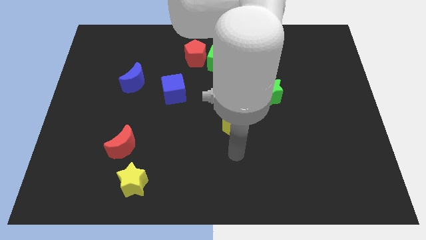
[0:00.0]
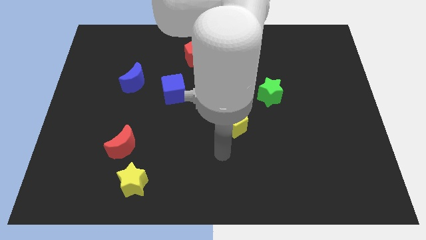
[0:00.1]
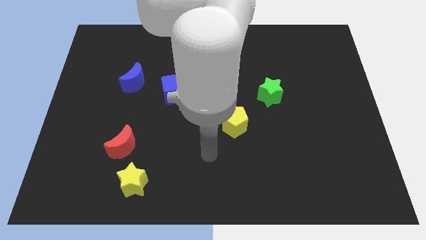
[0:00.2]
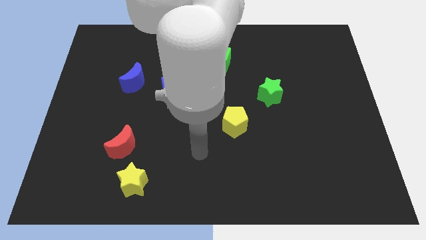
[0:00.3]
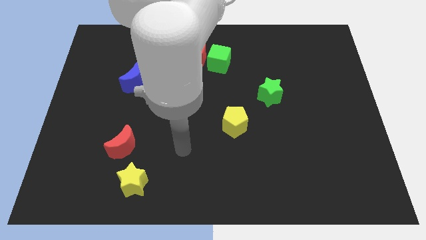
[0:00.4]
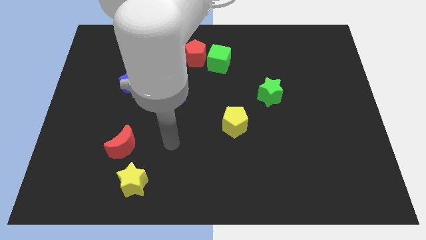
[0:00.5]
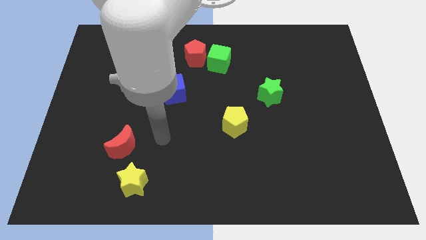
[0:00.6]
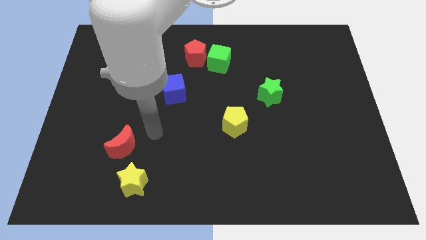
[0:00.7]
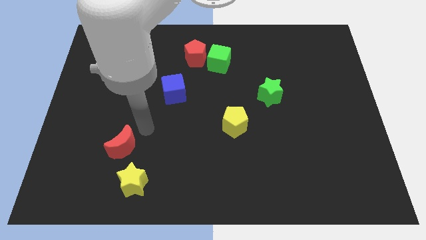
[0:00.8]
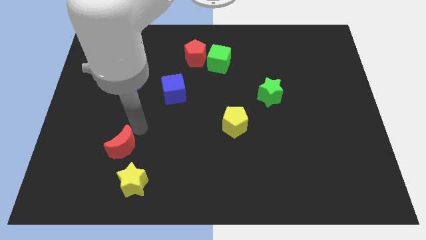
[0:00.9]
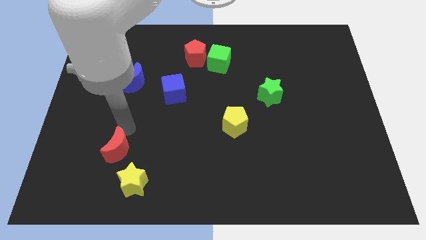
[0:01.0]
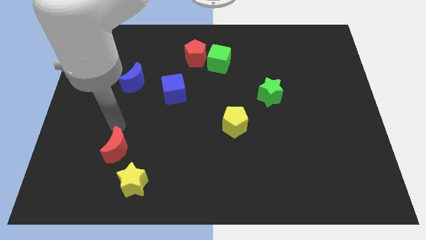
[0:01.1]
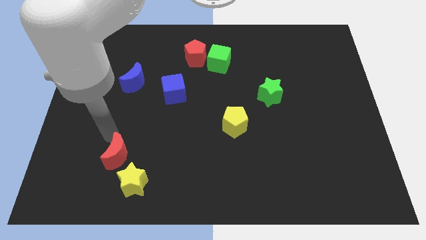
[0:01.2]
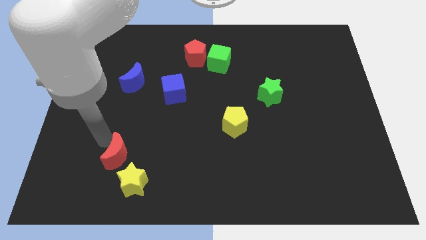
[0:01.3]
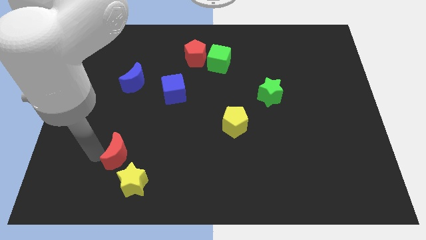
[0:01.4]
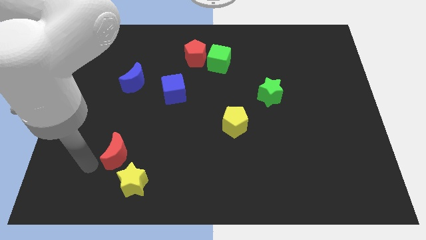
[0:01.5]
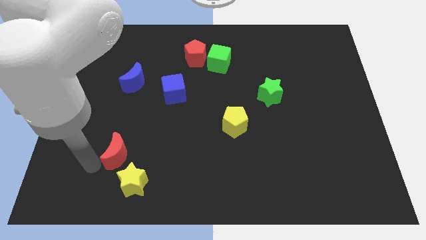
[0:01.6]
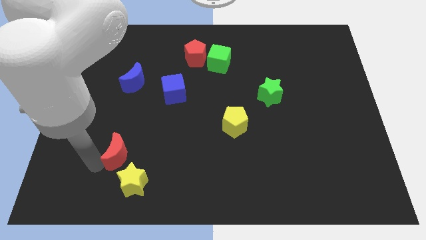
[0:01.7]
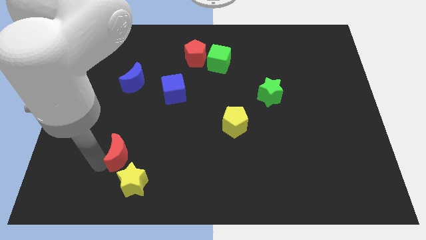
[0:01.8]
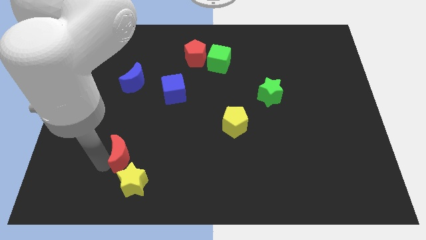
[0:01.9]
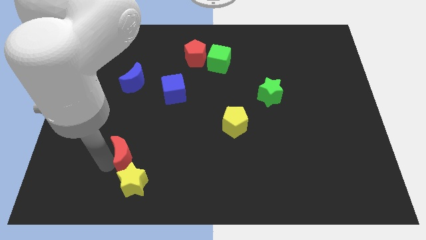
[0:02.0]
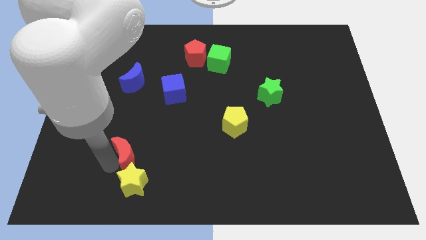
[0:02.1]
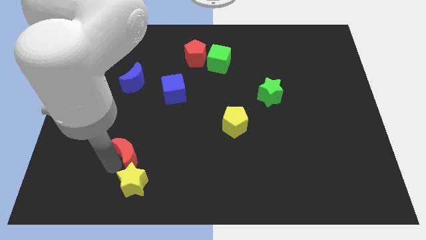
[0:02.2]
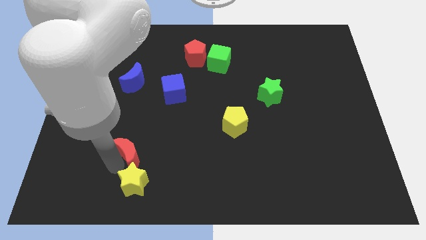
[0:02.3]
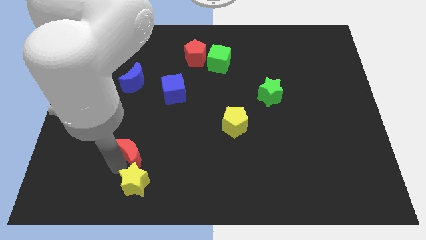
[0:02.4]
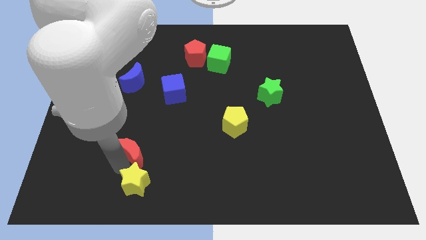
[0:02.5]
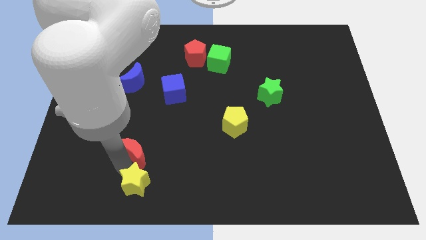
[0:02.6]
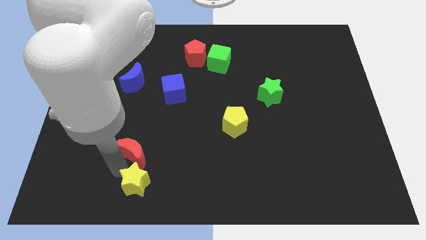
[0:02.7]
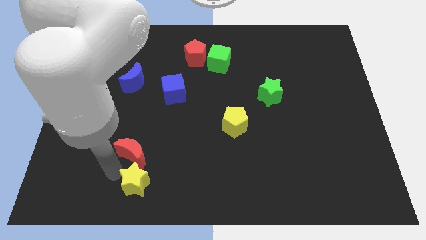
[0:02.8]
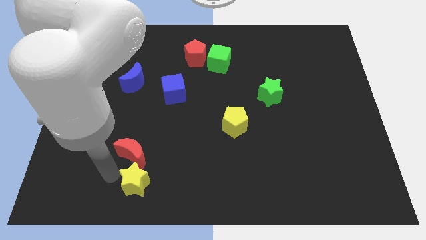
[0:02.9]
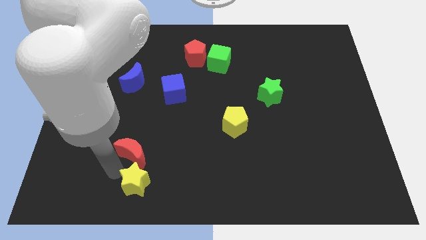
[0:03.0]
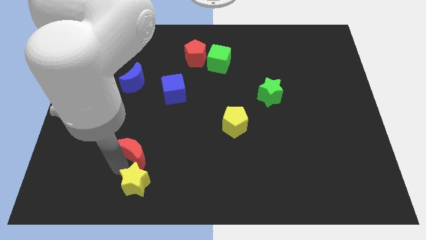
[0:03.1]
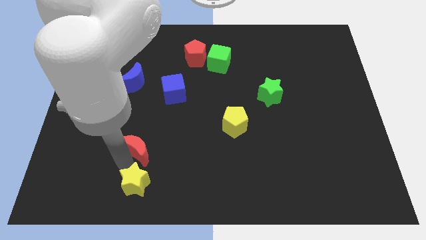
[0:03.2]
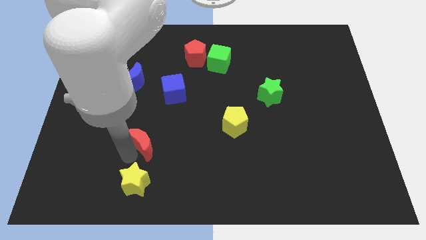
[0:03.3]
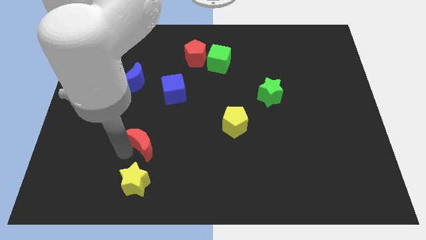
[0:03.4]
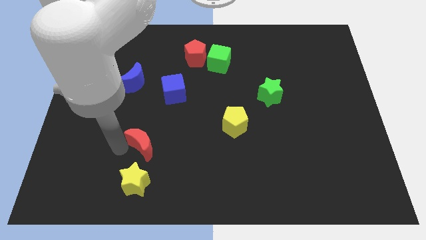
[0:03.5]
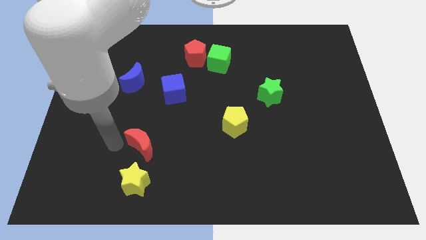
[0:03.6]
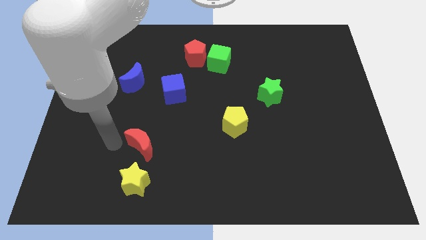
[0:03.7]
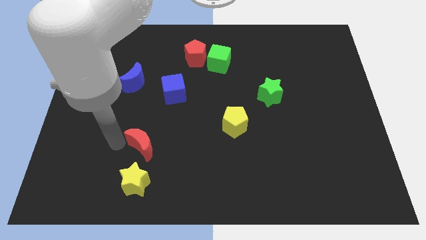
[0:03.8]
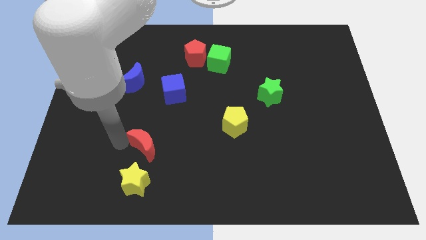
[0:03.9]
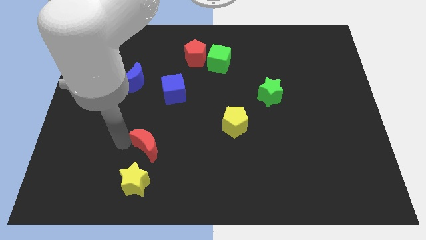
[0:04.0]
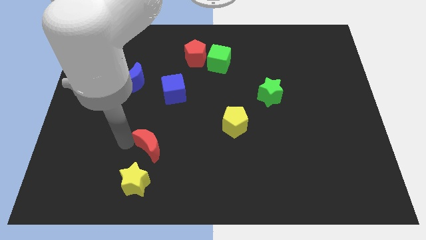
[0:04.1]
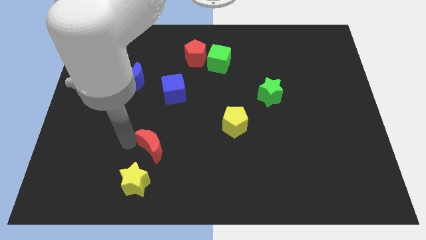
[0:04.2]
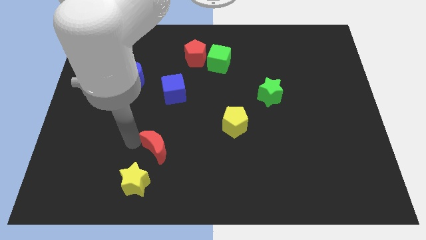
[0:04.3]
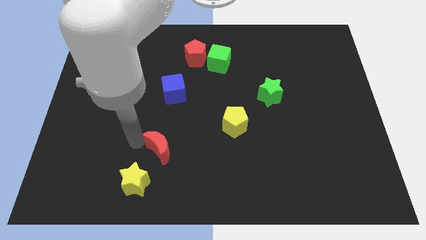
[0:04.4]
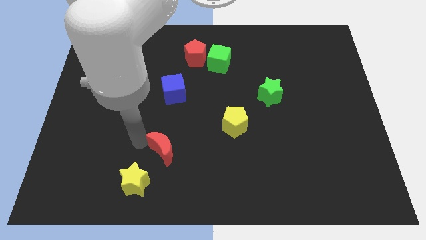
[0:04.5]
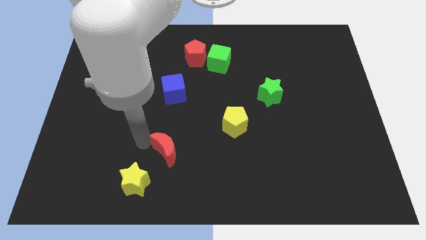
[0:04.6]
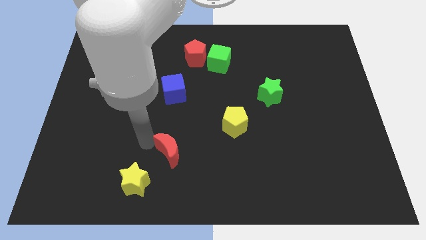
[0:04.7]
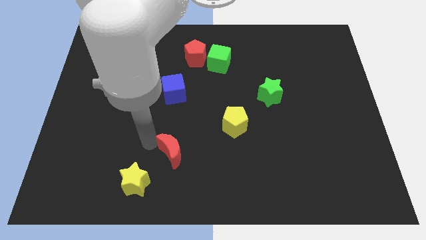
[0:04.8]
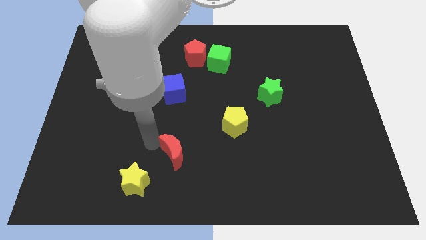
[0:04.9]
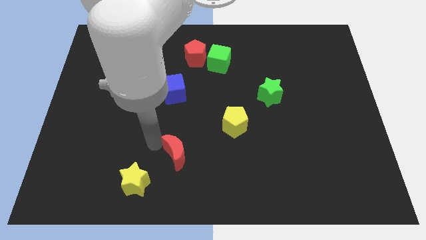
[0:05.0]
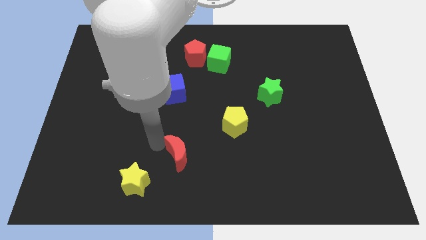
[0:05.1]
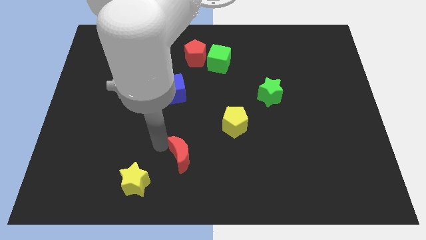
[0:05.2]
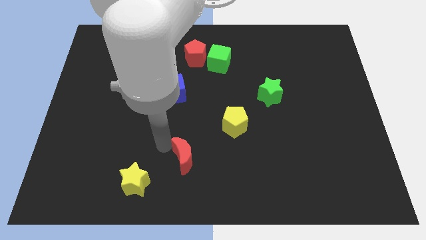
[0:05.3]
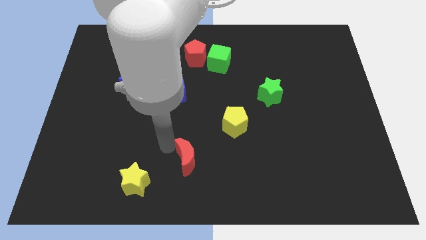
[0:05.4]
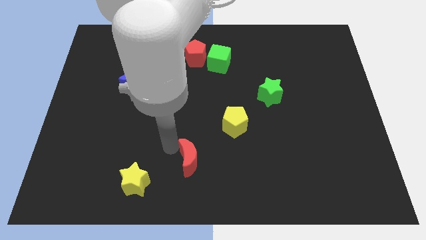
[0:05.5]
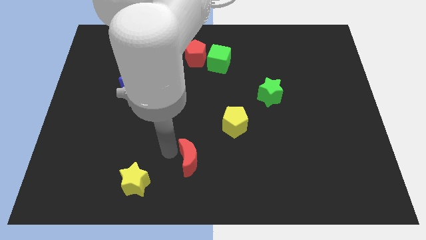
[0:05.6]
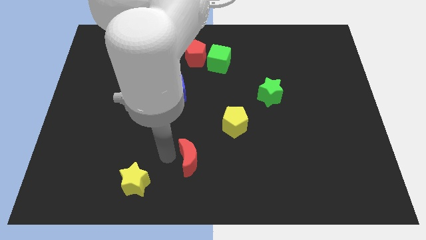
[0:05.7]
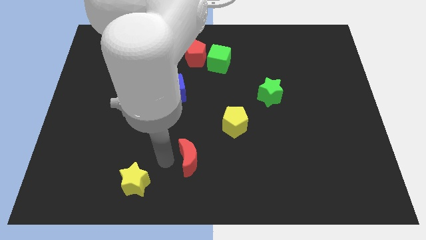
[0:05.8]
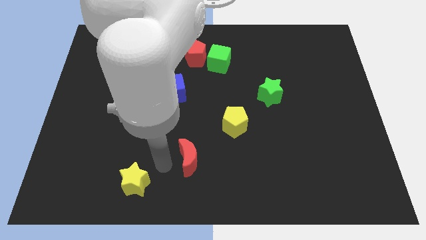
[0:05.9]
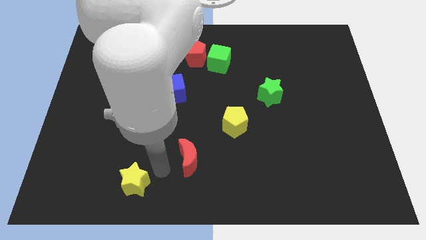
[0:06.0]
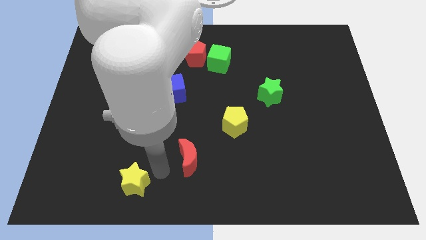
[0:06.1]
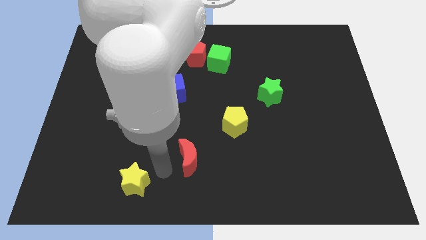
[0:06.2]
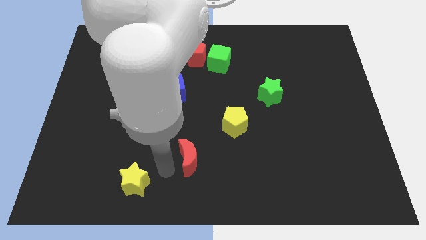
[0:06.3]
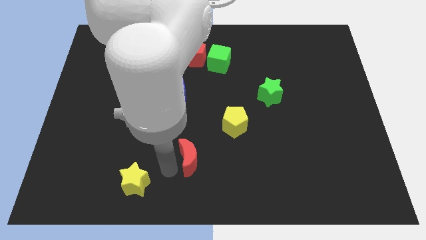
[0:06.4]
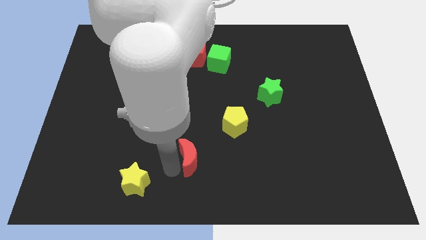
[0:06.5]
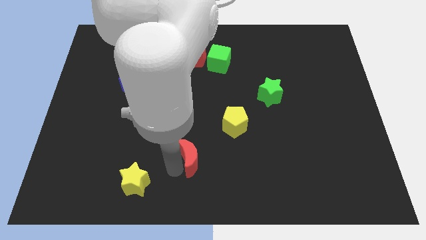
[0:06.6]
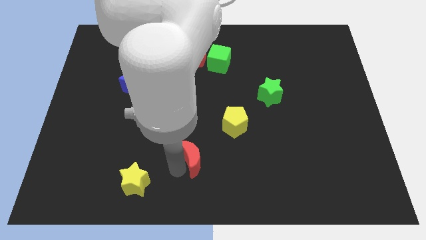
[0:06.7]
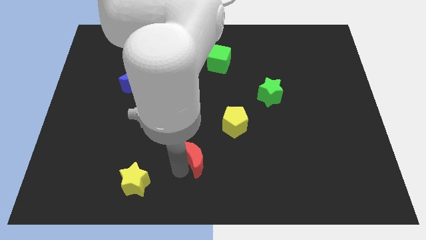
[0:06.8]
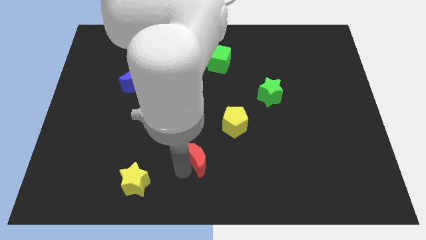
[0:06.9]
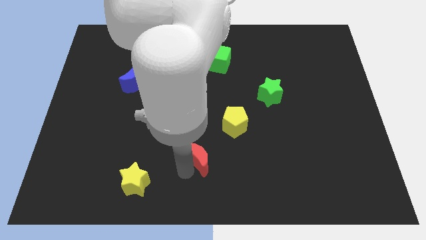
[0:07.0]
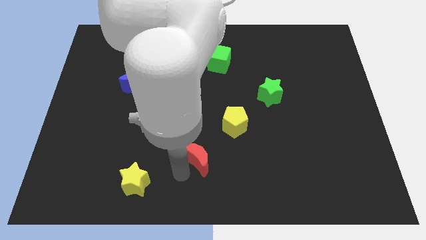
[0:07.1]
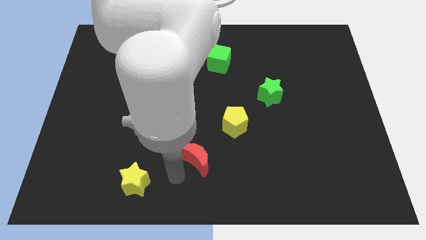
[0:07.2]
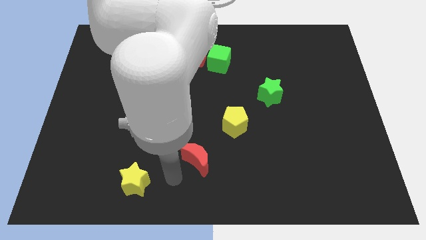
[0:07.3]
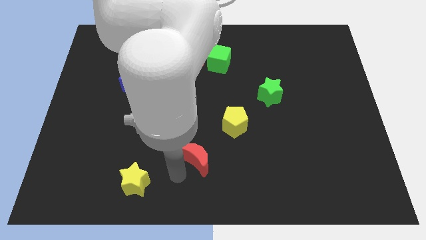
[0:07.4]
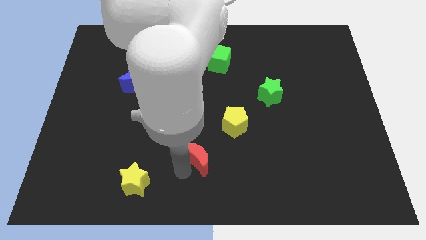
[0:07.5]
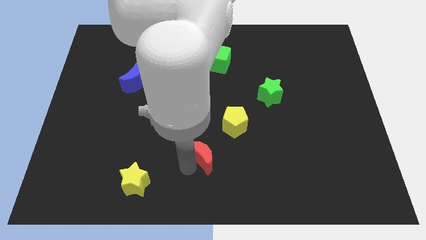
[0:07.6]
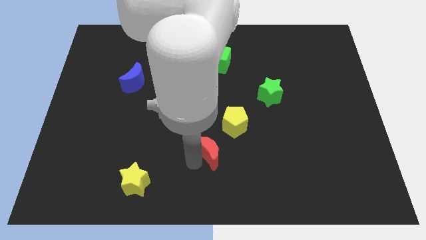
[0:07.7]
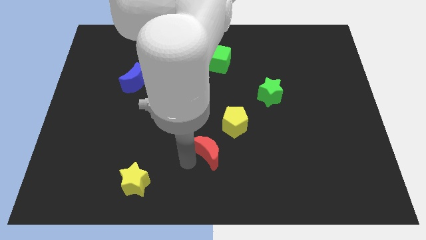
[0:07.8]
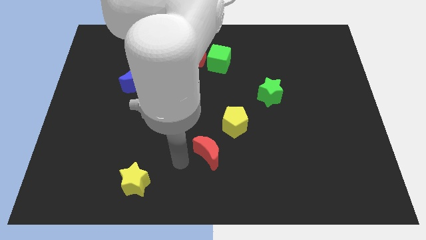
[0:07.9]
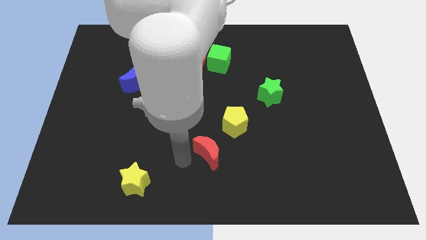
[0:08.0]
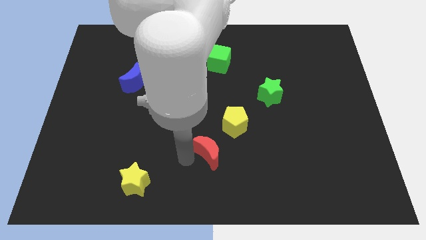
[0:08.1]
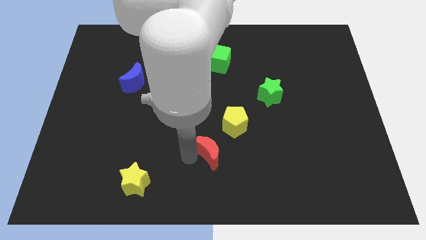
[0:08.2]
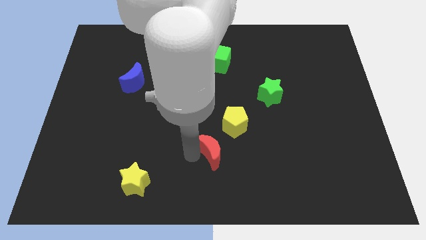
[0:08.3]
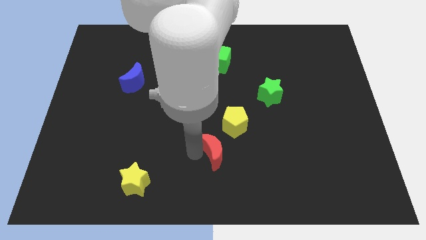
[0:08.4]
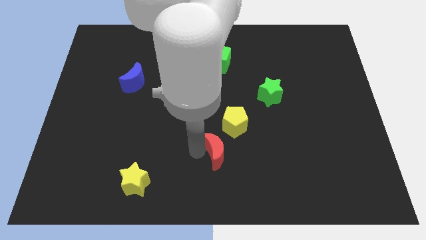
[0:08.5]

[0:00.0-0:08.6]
move the red moon to the right
